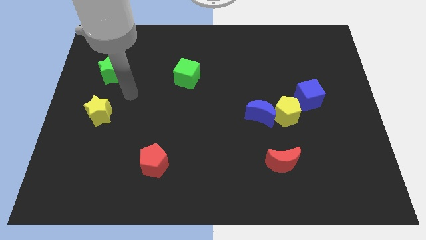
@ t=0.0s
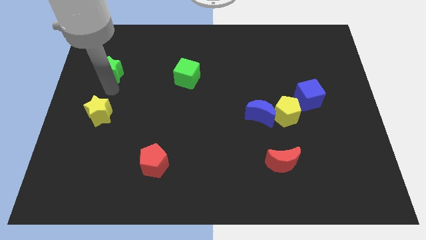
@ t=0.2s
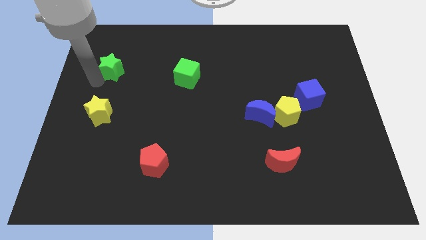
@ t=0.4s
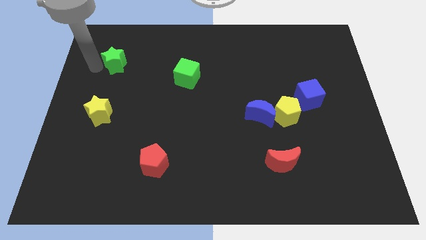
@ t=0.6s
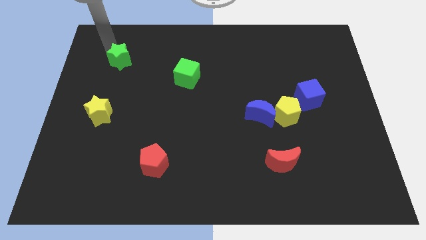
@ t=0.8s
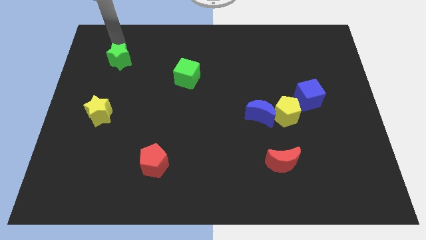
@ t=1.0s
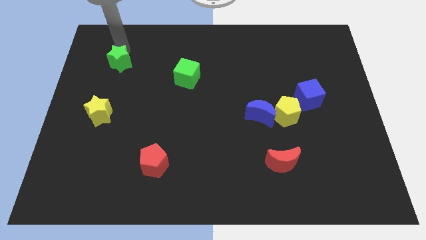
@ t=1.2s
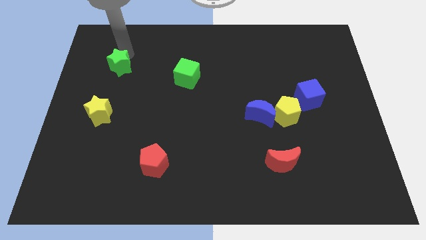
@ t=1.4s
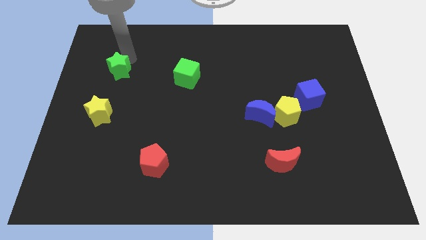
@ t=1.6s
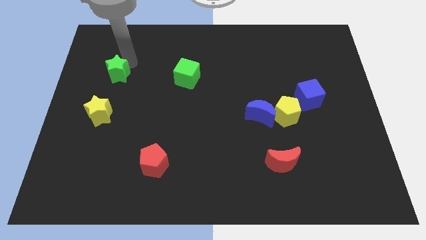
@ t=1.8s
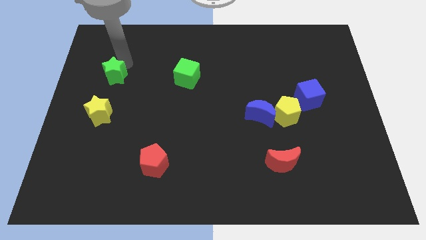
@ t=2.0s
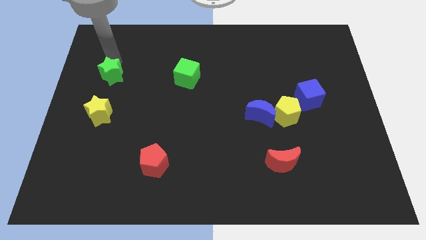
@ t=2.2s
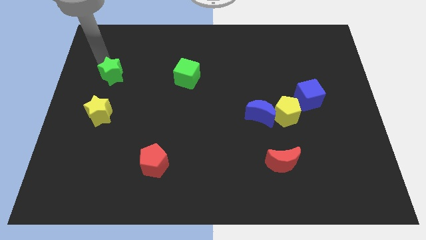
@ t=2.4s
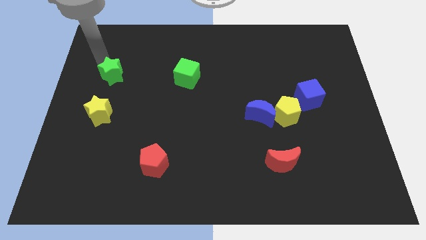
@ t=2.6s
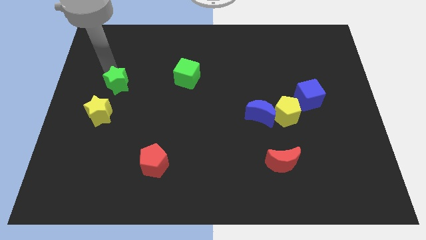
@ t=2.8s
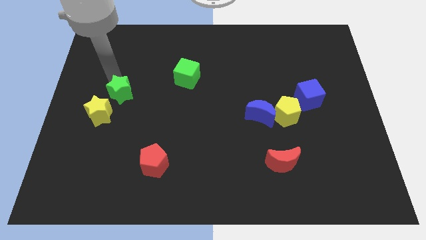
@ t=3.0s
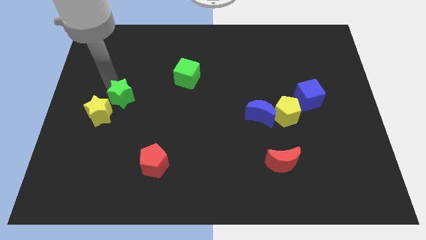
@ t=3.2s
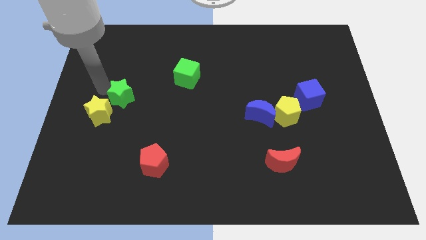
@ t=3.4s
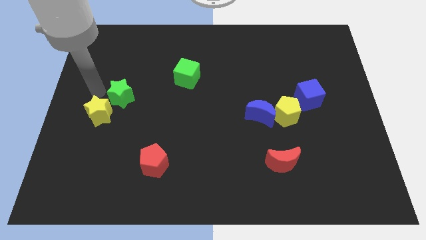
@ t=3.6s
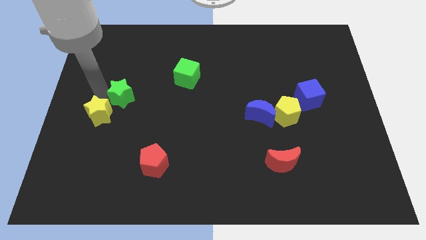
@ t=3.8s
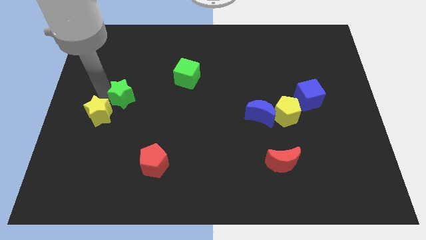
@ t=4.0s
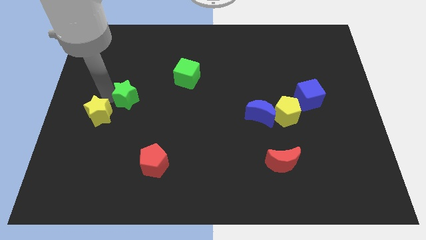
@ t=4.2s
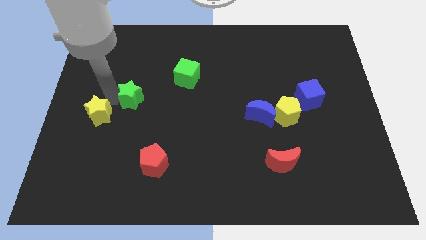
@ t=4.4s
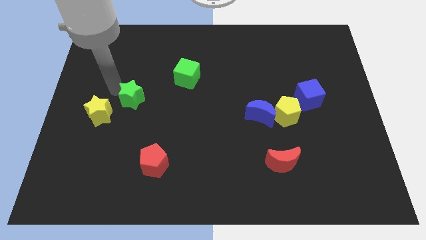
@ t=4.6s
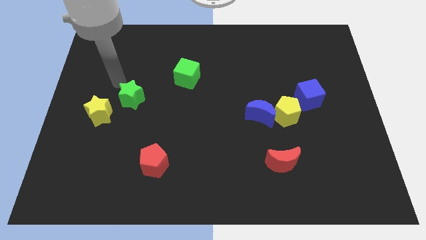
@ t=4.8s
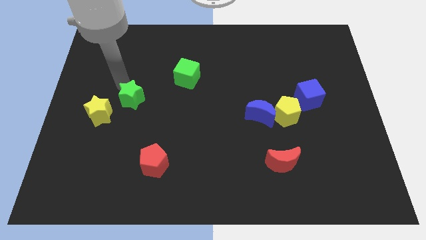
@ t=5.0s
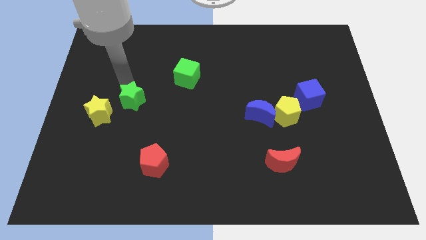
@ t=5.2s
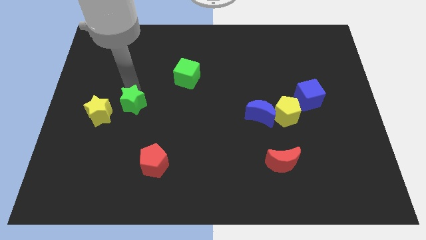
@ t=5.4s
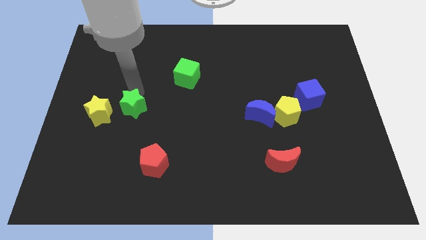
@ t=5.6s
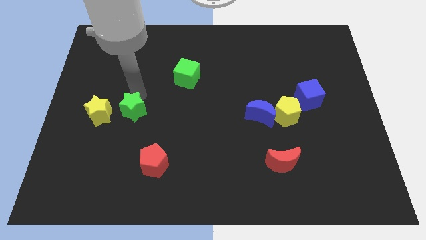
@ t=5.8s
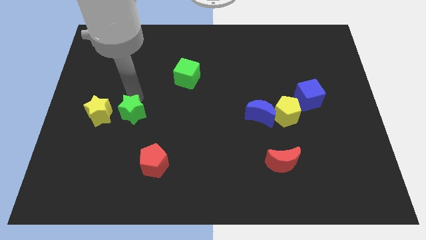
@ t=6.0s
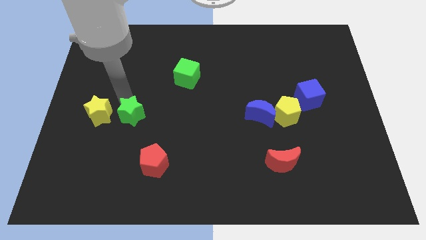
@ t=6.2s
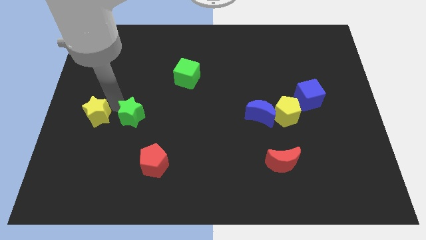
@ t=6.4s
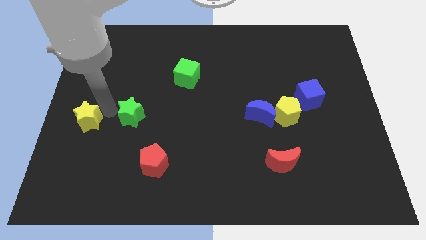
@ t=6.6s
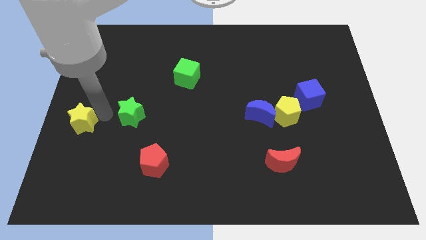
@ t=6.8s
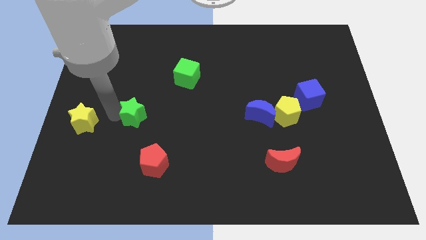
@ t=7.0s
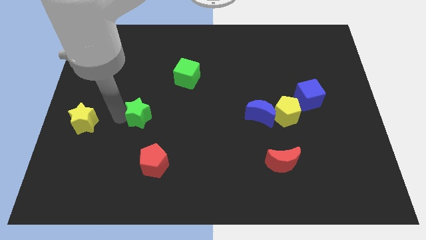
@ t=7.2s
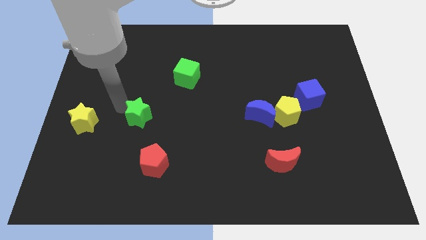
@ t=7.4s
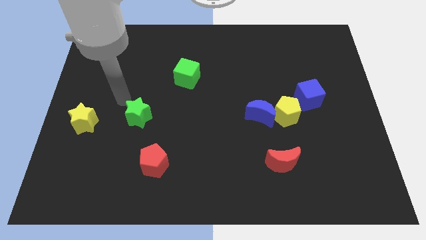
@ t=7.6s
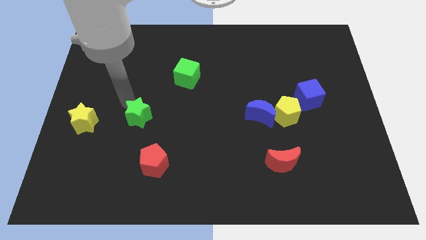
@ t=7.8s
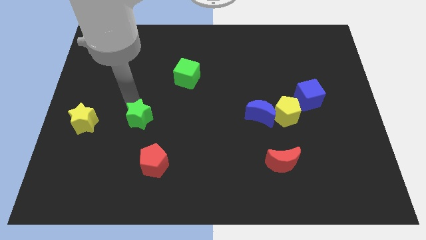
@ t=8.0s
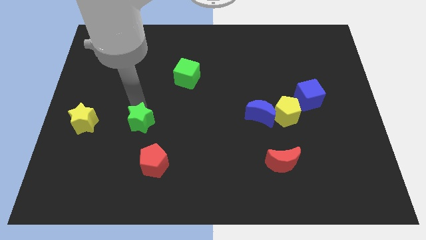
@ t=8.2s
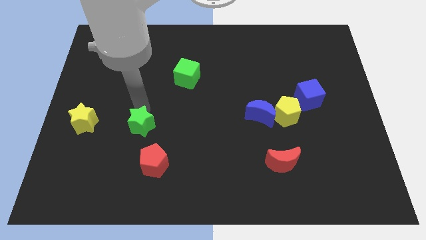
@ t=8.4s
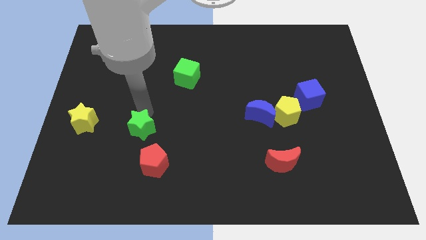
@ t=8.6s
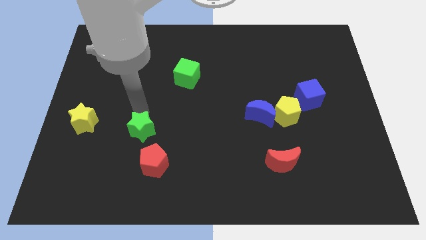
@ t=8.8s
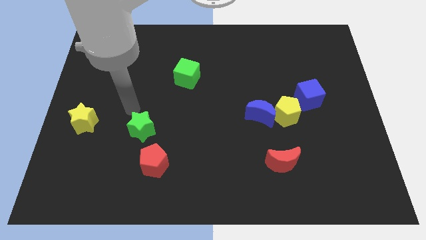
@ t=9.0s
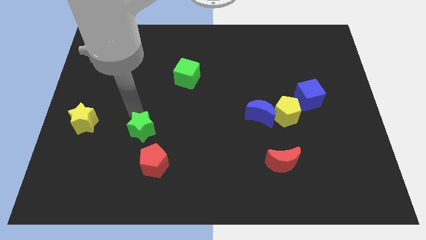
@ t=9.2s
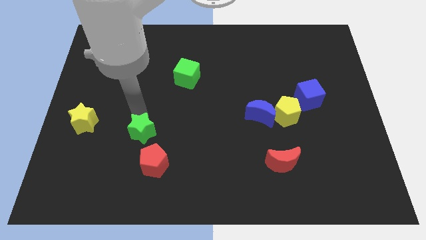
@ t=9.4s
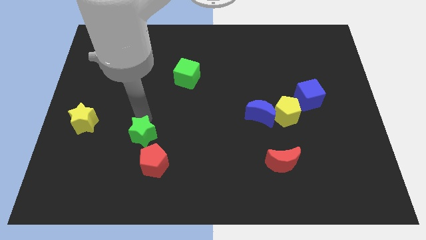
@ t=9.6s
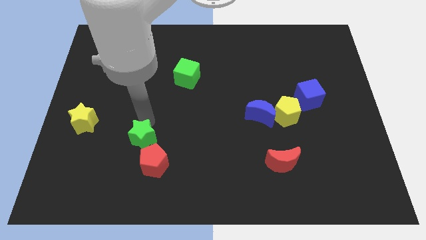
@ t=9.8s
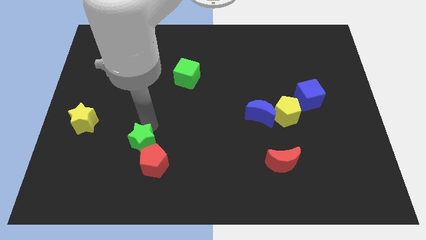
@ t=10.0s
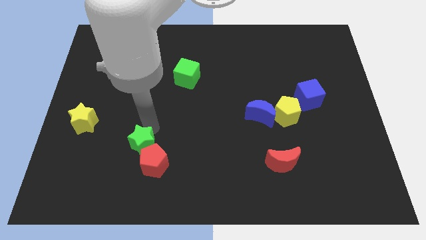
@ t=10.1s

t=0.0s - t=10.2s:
put the green star towards the red pentagon

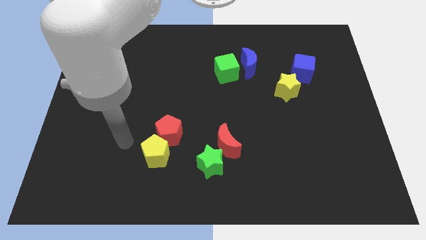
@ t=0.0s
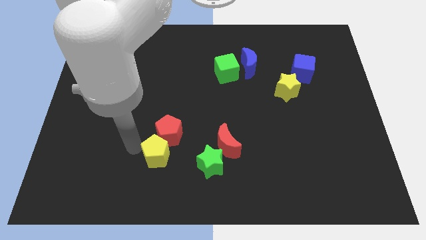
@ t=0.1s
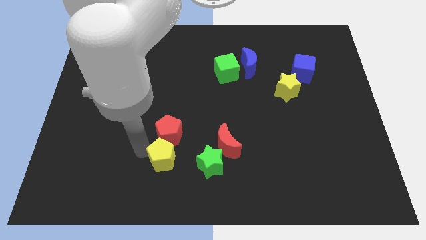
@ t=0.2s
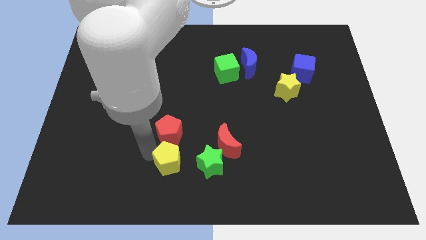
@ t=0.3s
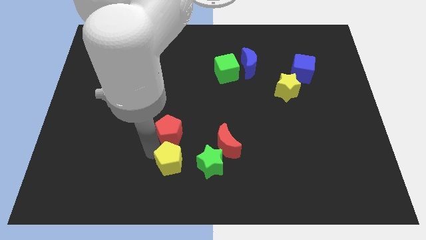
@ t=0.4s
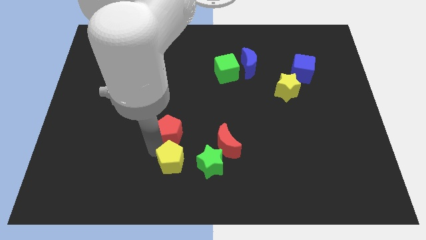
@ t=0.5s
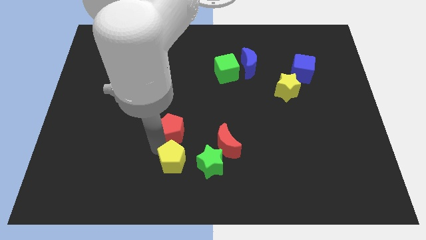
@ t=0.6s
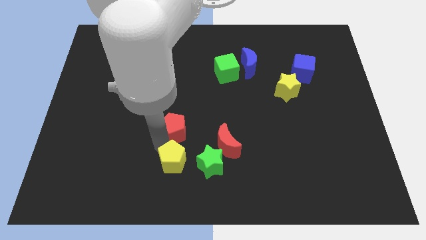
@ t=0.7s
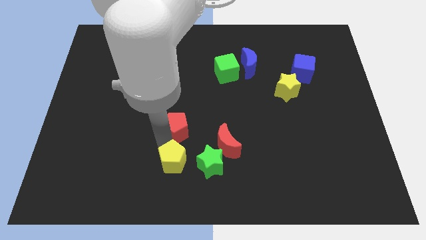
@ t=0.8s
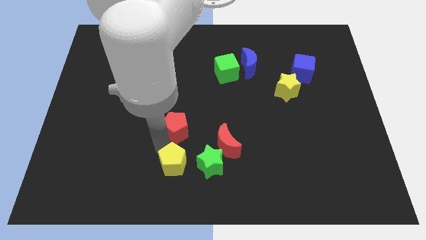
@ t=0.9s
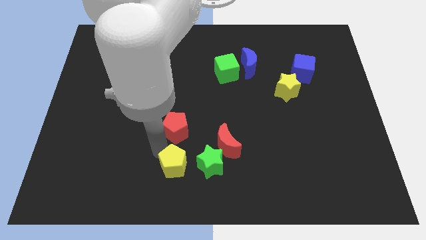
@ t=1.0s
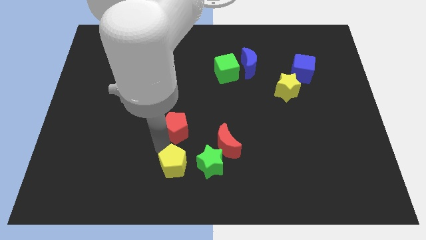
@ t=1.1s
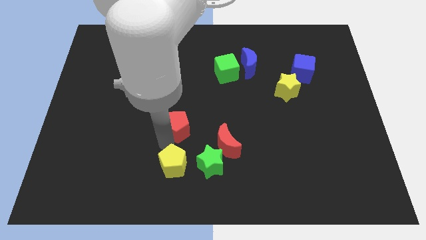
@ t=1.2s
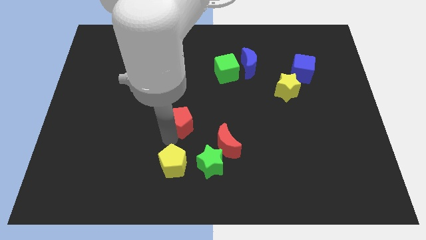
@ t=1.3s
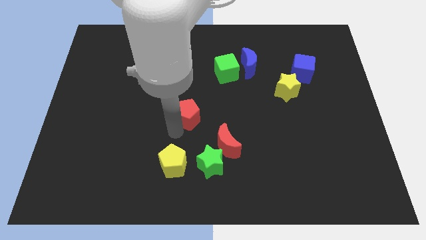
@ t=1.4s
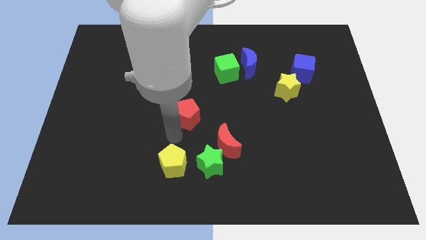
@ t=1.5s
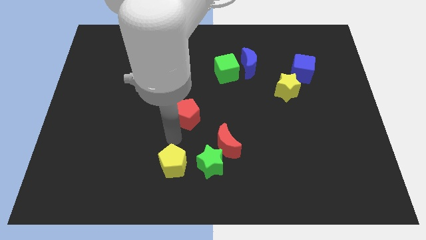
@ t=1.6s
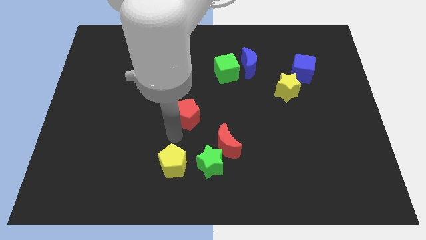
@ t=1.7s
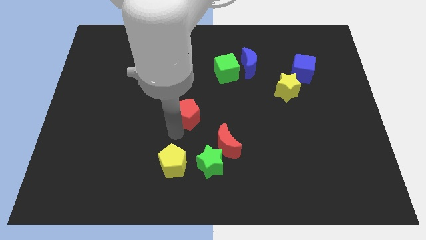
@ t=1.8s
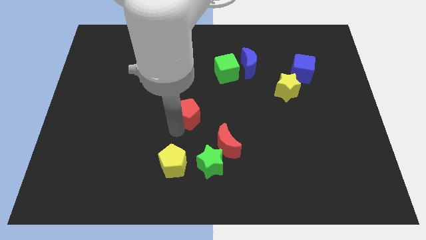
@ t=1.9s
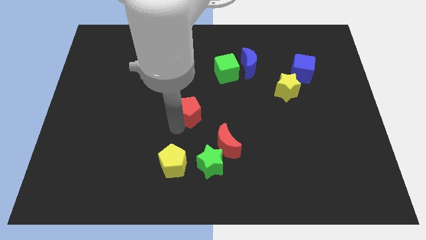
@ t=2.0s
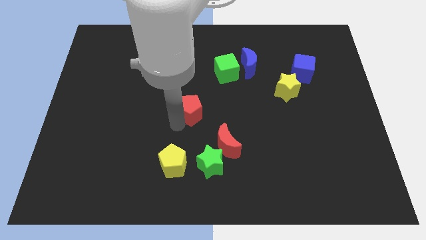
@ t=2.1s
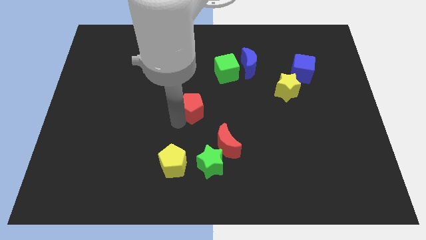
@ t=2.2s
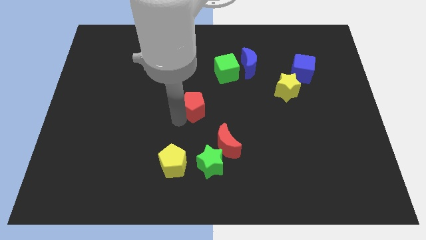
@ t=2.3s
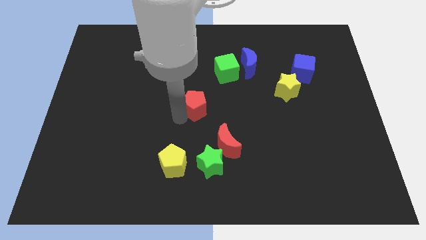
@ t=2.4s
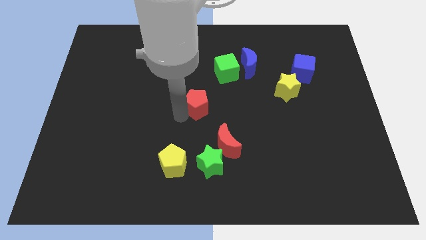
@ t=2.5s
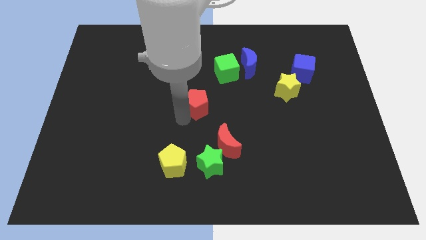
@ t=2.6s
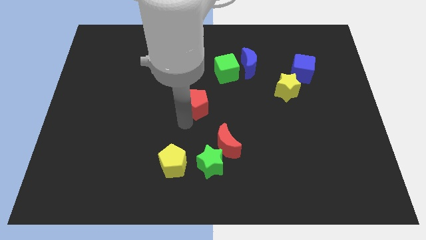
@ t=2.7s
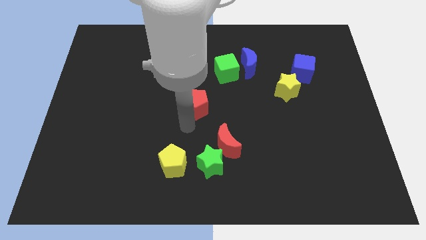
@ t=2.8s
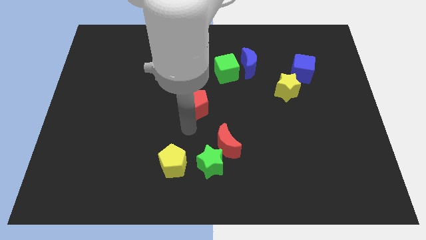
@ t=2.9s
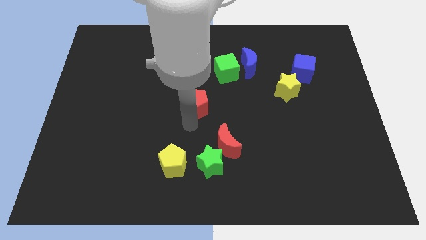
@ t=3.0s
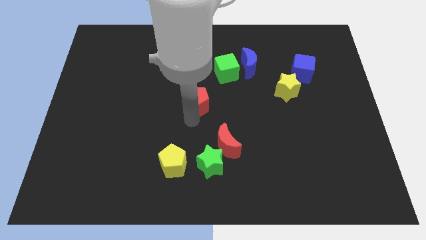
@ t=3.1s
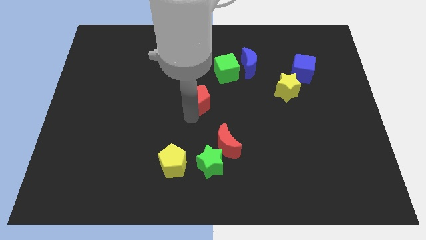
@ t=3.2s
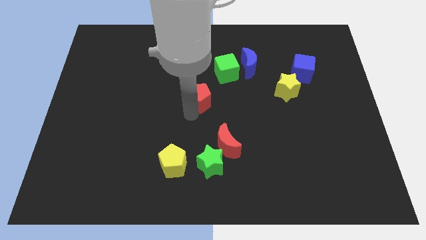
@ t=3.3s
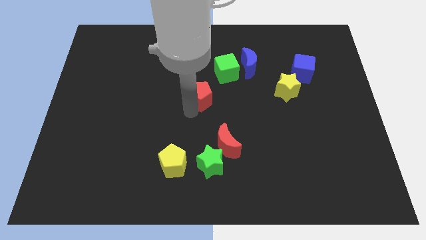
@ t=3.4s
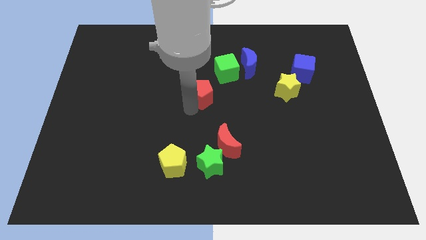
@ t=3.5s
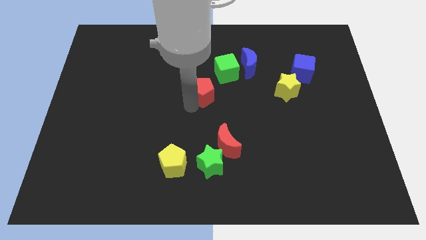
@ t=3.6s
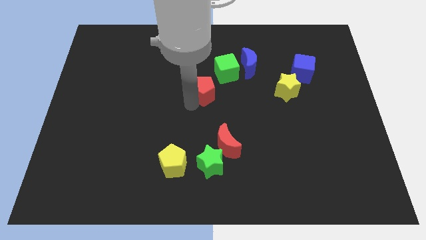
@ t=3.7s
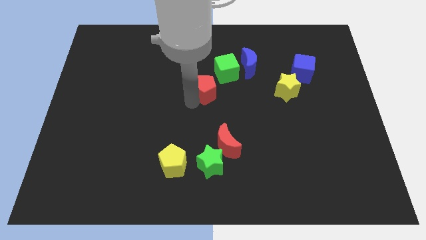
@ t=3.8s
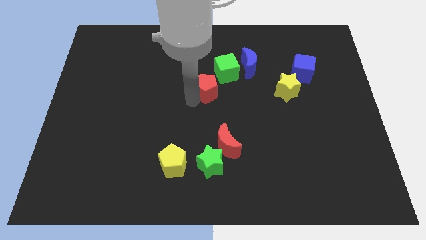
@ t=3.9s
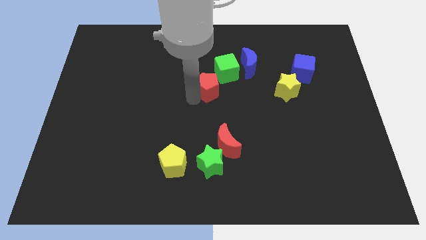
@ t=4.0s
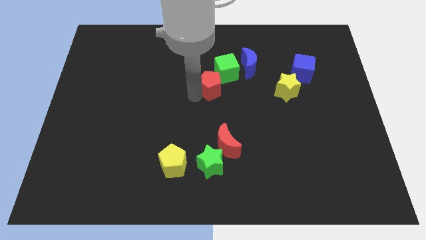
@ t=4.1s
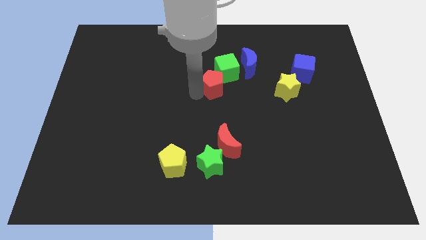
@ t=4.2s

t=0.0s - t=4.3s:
put the red pentagon close to the green cube
